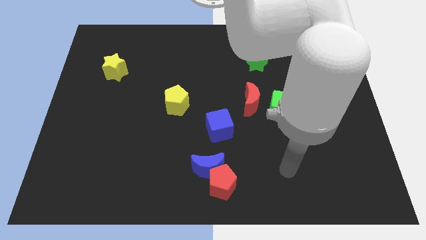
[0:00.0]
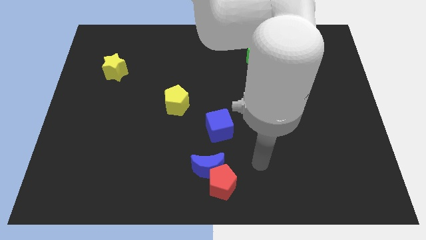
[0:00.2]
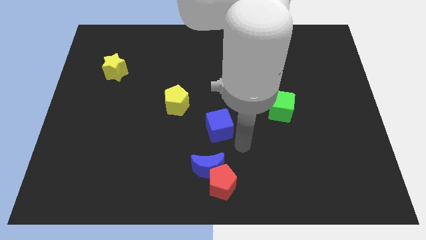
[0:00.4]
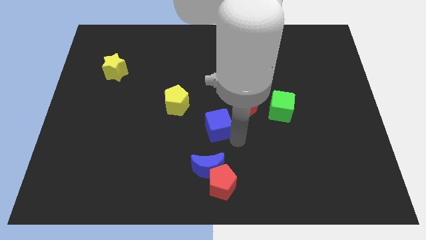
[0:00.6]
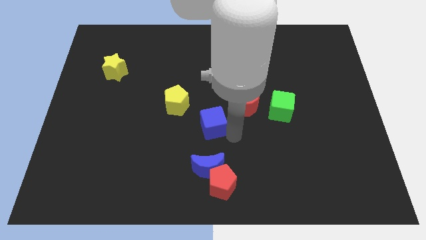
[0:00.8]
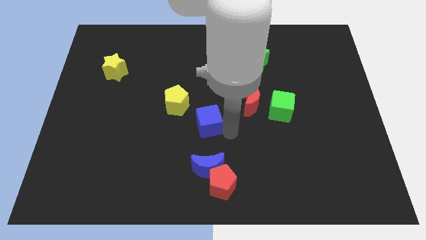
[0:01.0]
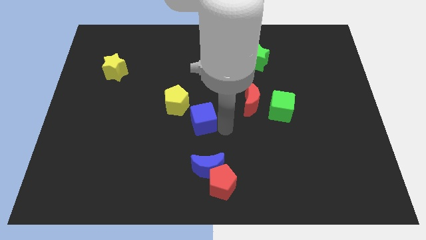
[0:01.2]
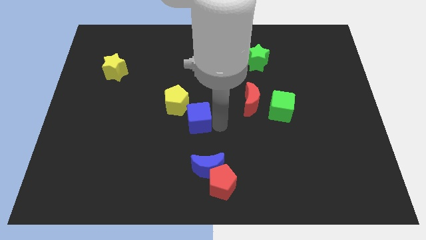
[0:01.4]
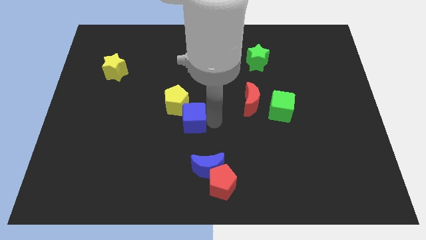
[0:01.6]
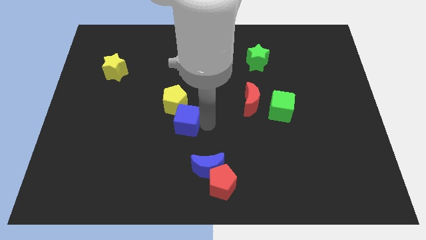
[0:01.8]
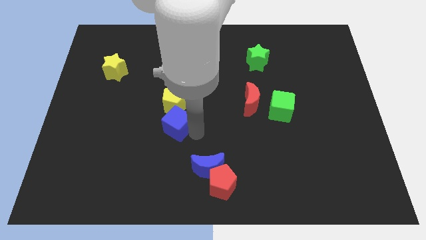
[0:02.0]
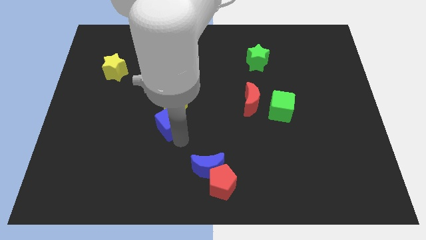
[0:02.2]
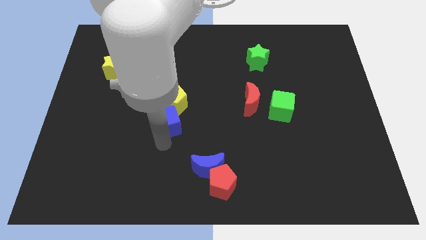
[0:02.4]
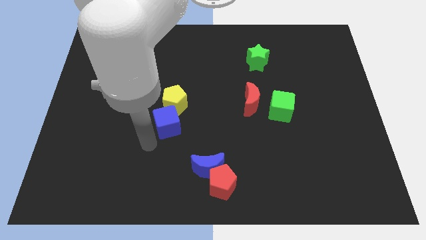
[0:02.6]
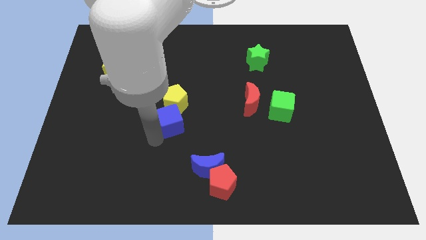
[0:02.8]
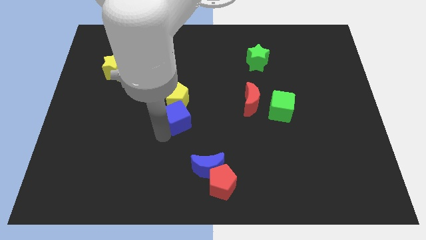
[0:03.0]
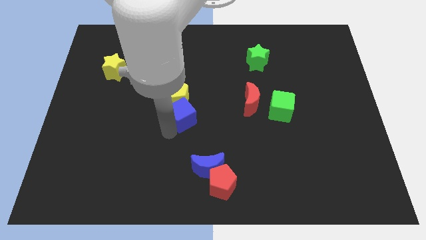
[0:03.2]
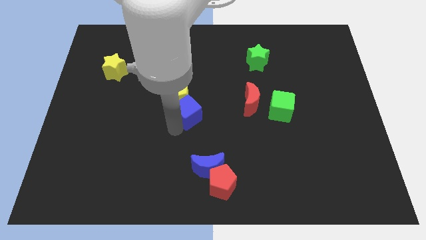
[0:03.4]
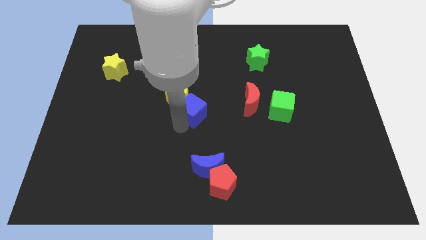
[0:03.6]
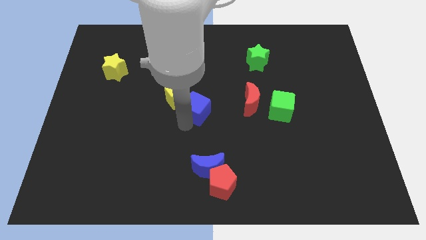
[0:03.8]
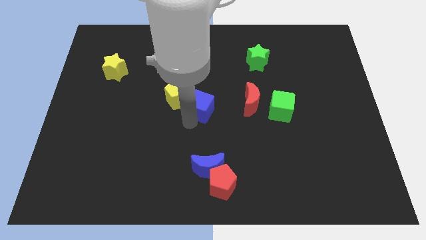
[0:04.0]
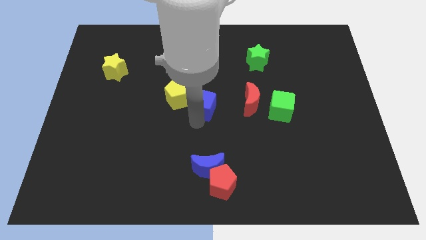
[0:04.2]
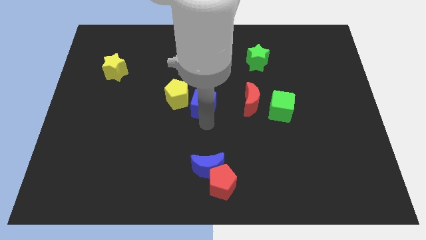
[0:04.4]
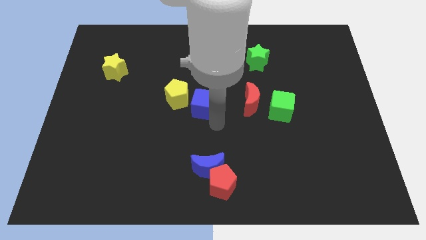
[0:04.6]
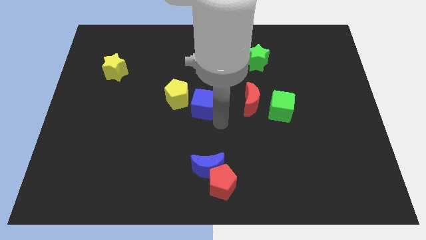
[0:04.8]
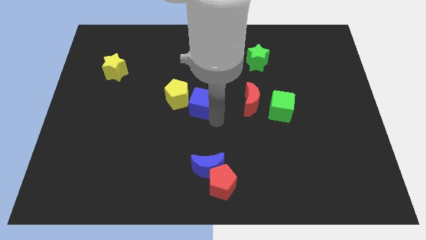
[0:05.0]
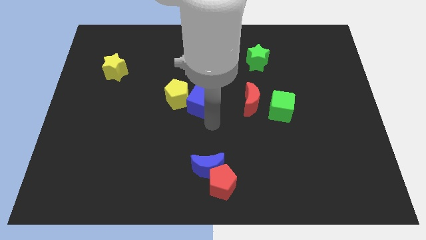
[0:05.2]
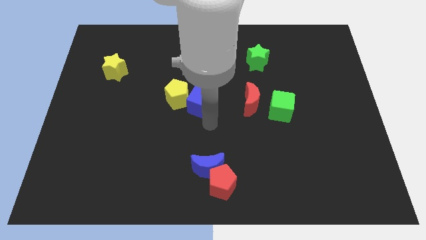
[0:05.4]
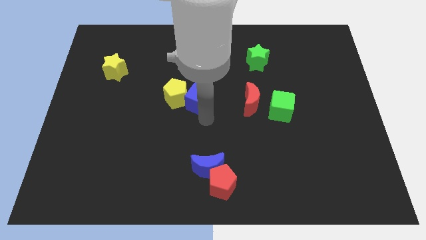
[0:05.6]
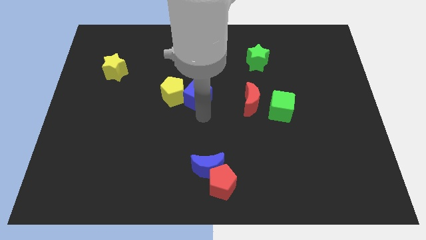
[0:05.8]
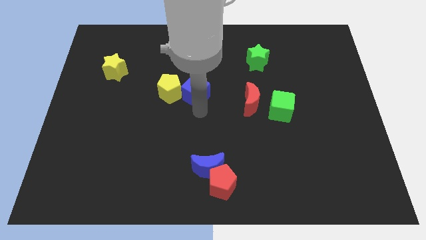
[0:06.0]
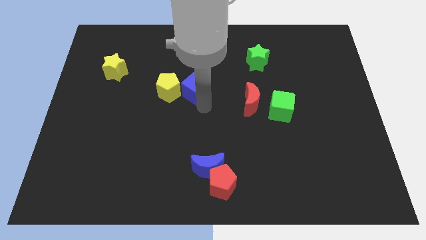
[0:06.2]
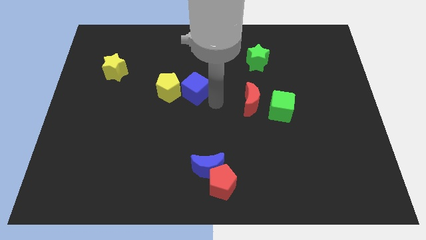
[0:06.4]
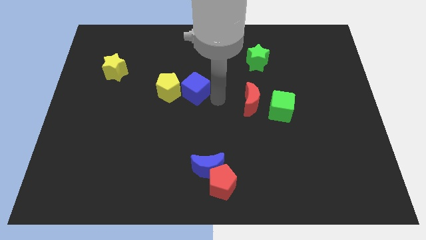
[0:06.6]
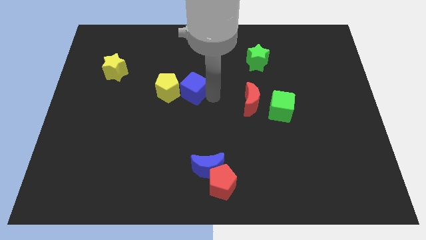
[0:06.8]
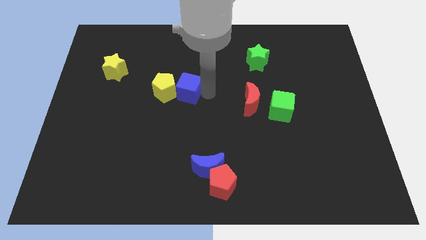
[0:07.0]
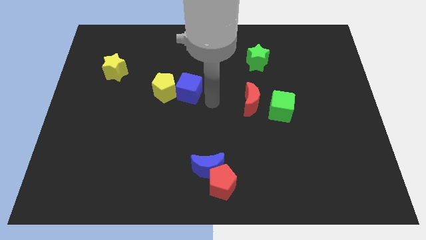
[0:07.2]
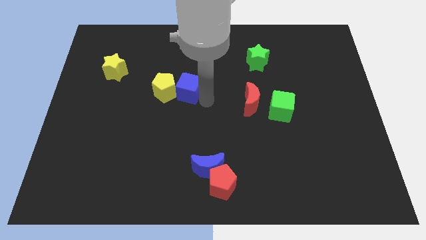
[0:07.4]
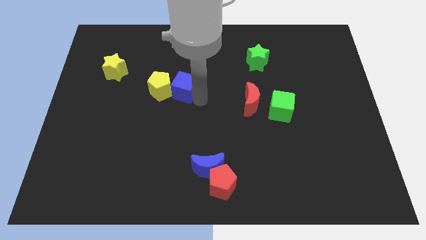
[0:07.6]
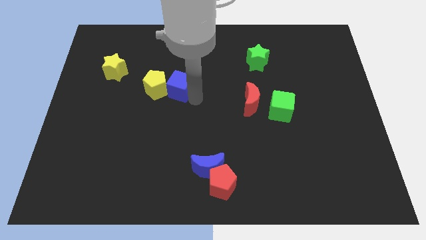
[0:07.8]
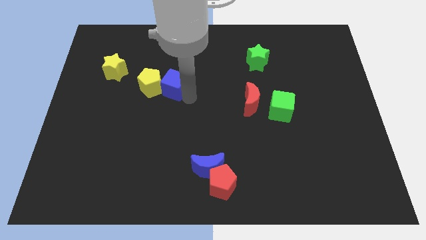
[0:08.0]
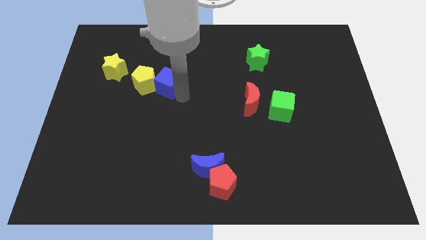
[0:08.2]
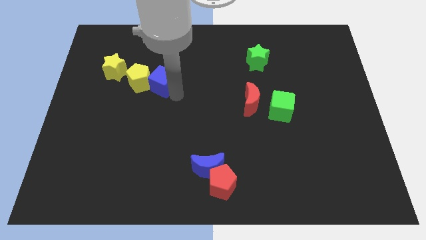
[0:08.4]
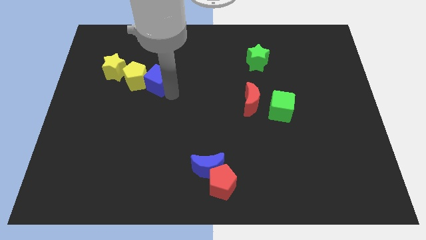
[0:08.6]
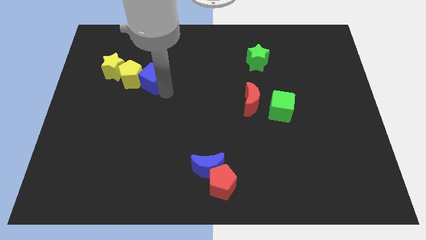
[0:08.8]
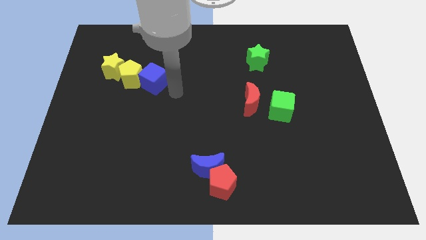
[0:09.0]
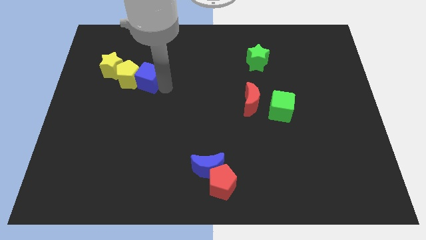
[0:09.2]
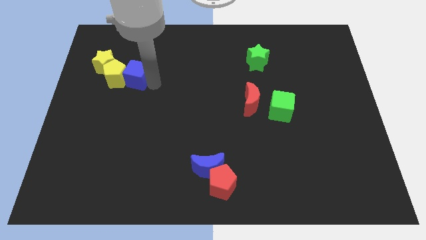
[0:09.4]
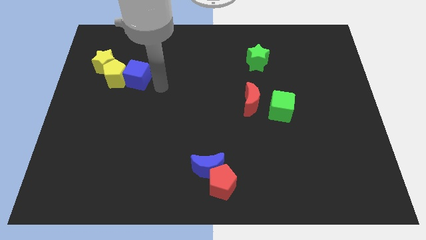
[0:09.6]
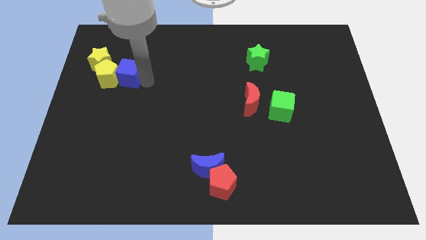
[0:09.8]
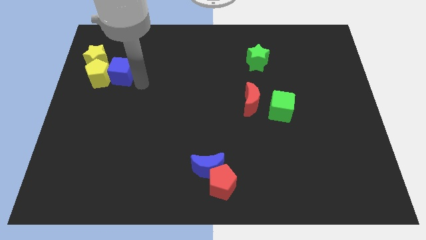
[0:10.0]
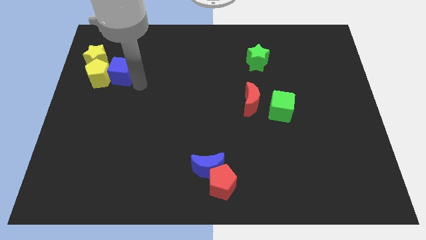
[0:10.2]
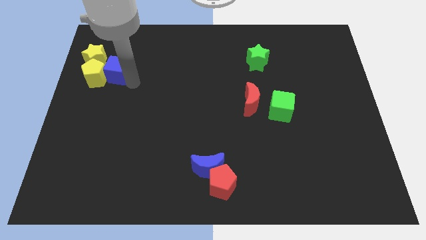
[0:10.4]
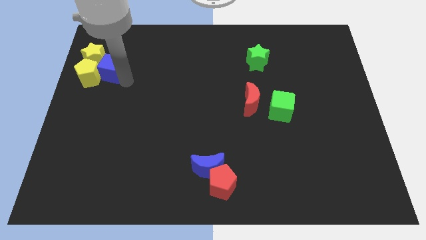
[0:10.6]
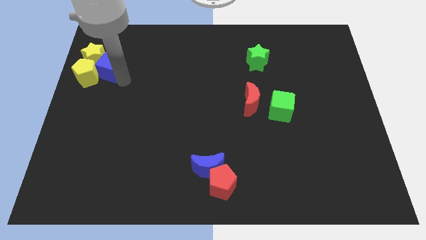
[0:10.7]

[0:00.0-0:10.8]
slide the blue cube towards the yellow star

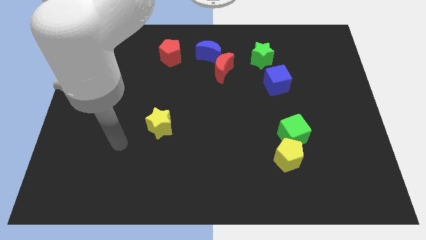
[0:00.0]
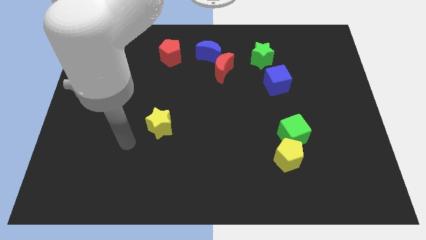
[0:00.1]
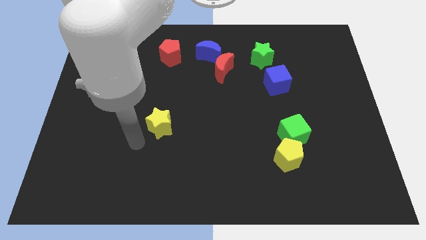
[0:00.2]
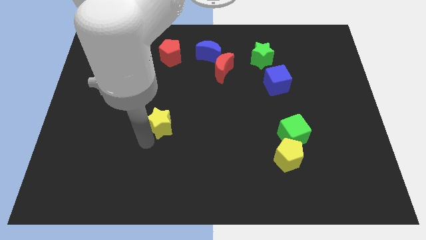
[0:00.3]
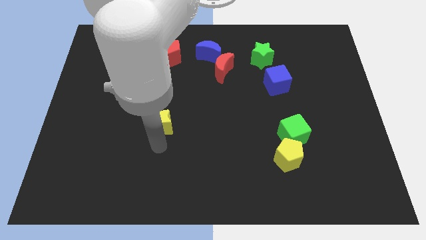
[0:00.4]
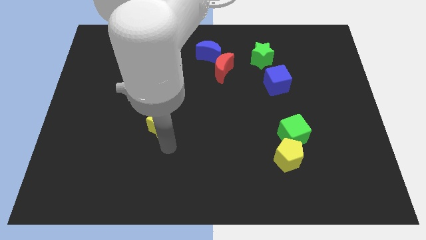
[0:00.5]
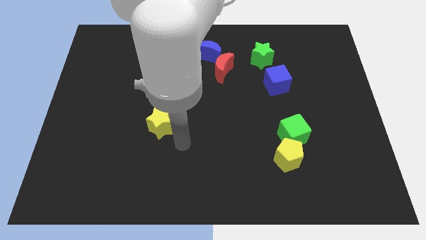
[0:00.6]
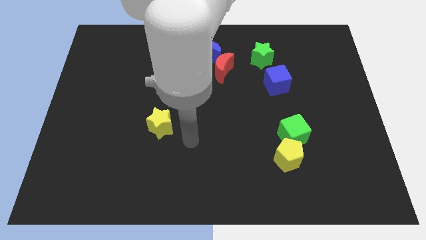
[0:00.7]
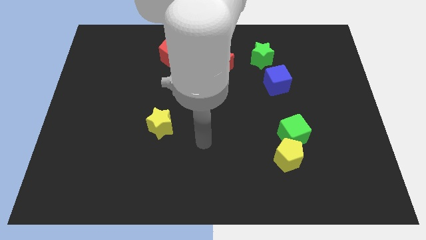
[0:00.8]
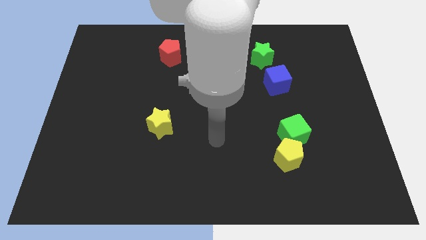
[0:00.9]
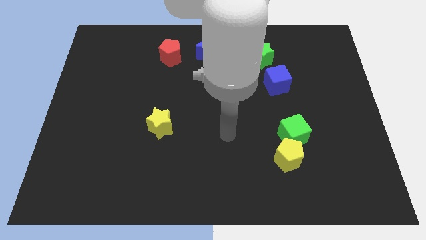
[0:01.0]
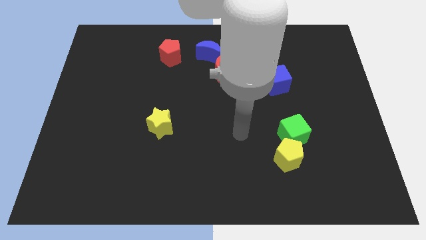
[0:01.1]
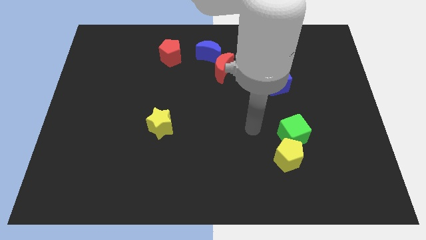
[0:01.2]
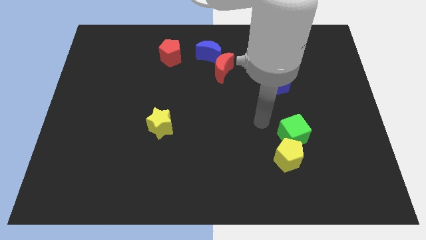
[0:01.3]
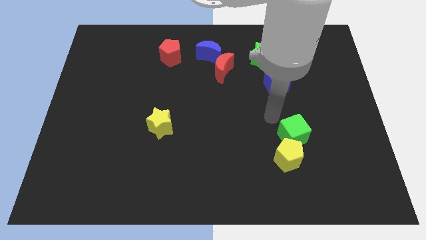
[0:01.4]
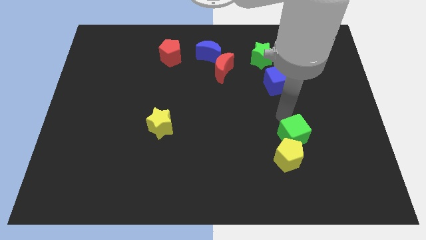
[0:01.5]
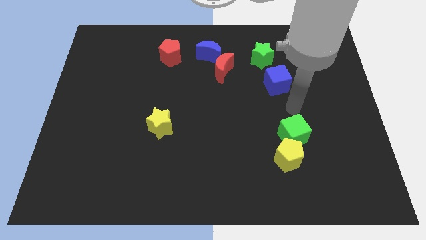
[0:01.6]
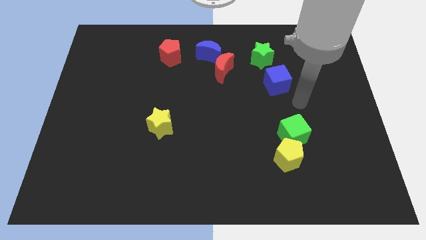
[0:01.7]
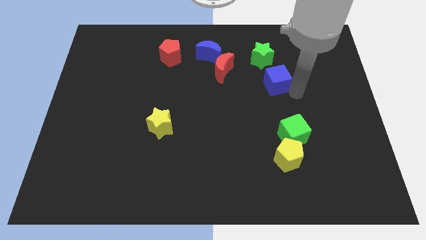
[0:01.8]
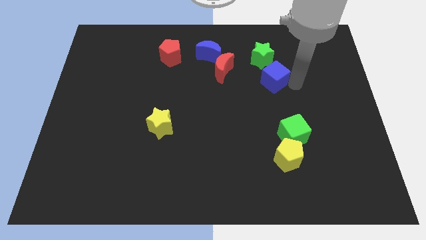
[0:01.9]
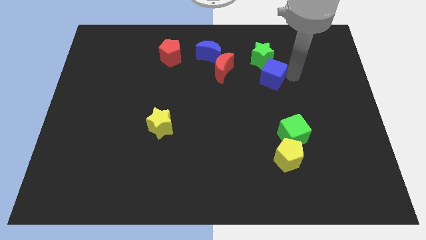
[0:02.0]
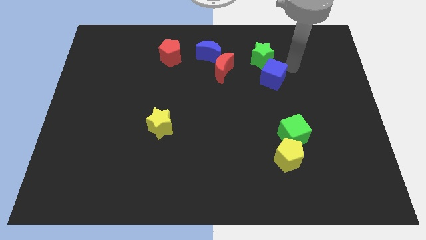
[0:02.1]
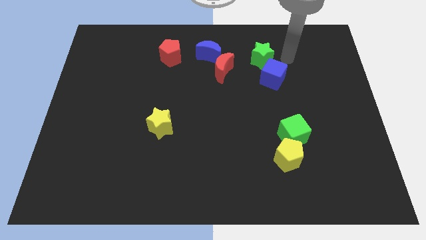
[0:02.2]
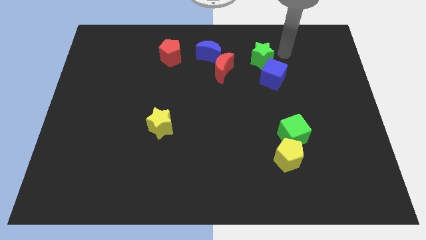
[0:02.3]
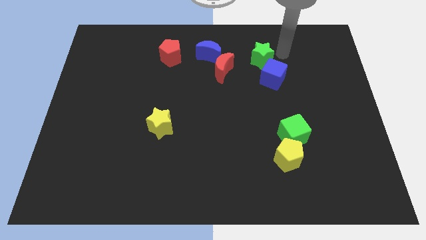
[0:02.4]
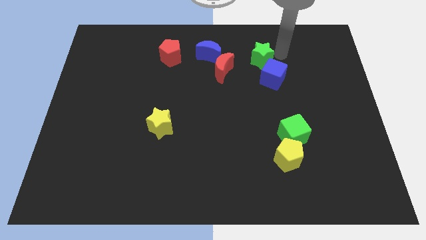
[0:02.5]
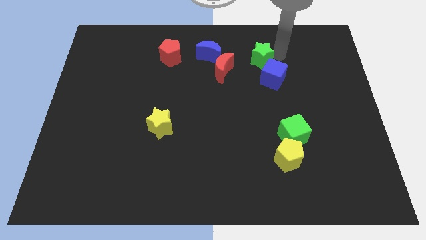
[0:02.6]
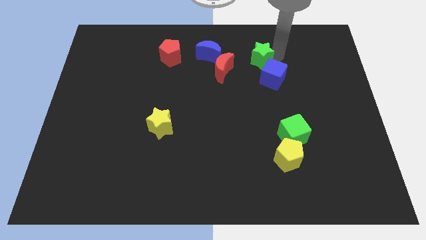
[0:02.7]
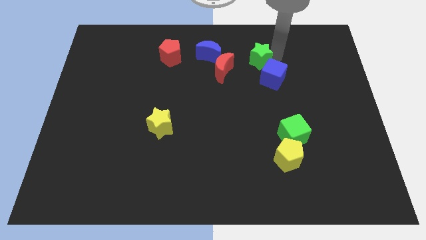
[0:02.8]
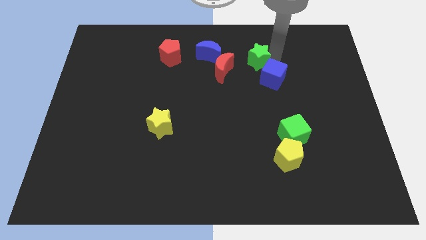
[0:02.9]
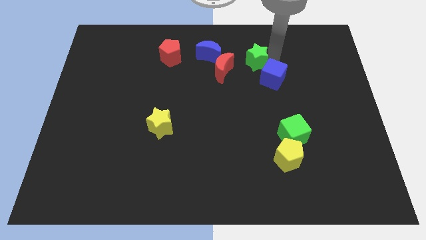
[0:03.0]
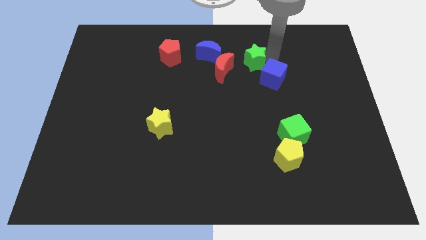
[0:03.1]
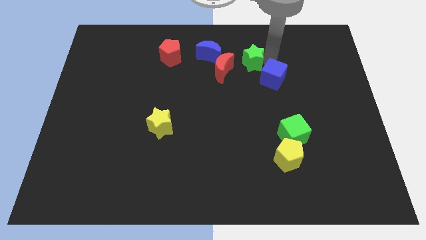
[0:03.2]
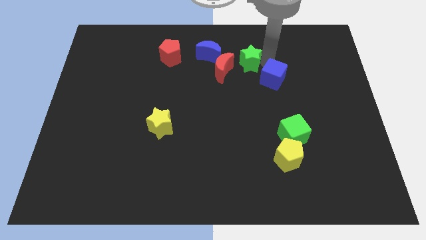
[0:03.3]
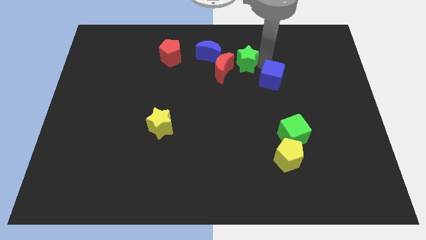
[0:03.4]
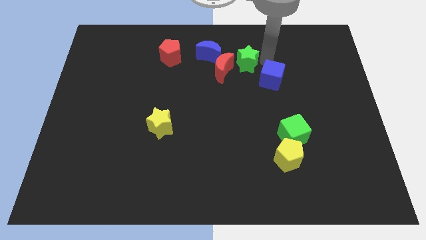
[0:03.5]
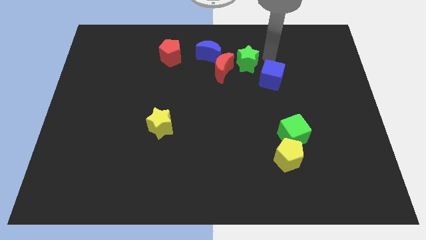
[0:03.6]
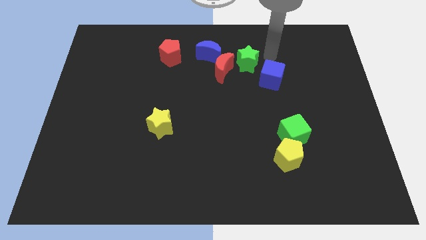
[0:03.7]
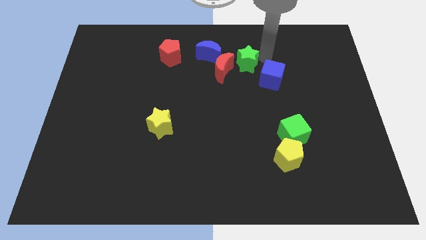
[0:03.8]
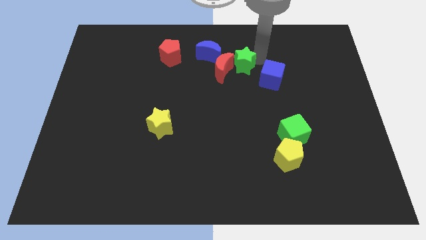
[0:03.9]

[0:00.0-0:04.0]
put the green star close to the red moon
